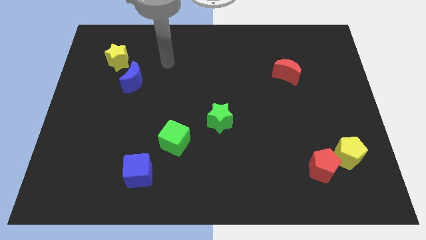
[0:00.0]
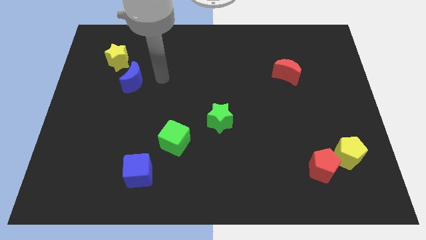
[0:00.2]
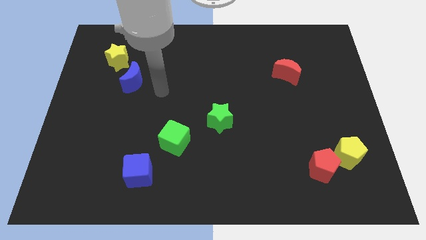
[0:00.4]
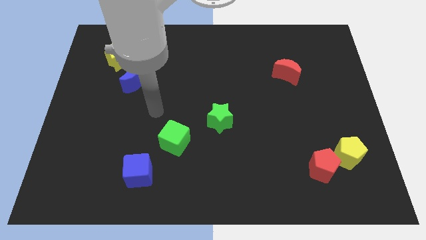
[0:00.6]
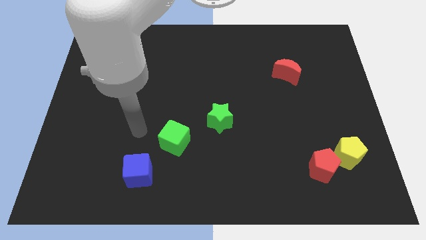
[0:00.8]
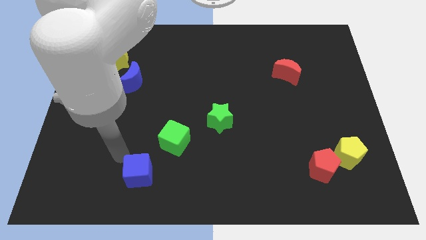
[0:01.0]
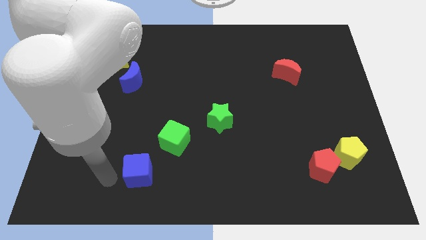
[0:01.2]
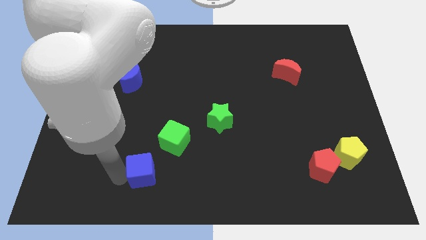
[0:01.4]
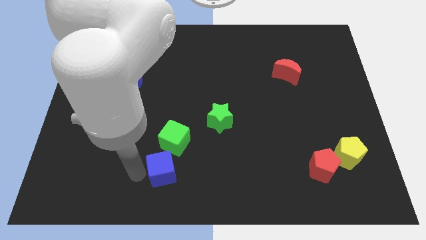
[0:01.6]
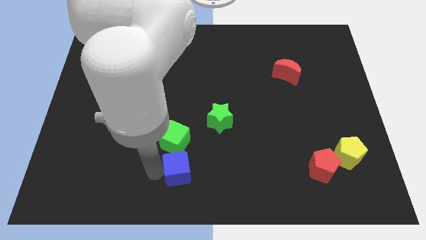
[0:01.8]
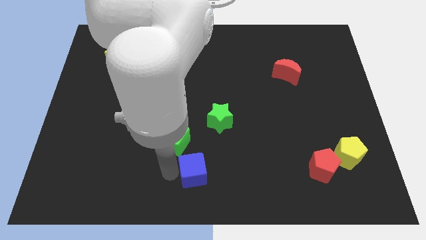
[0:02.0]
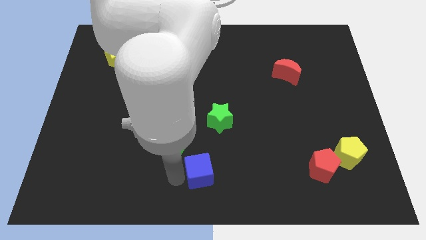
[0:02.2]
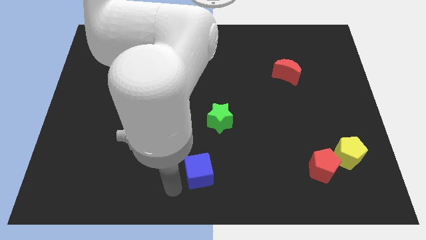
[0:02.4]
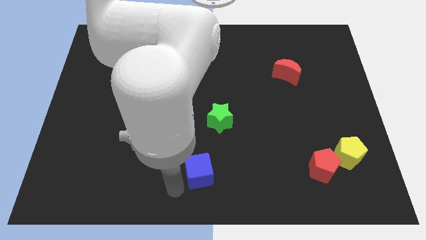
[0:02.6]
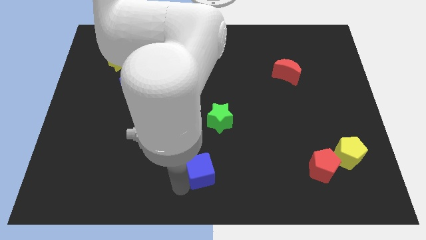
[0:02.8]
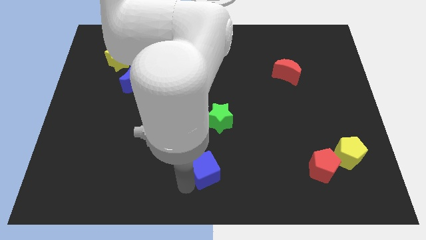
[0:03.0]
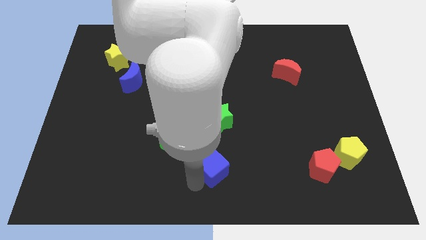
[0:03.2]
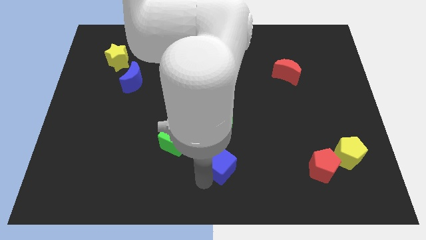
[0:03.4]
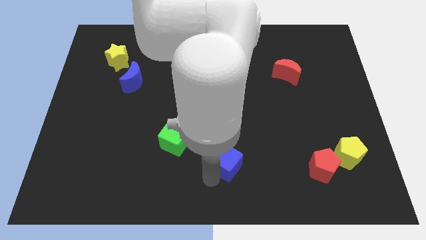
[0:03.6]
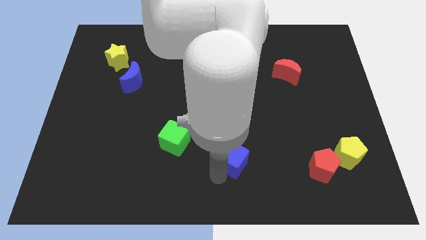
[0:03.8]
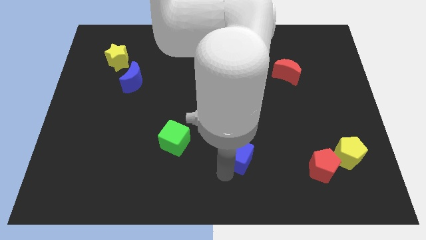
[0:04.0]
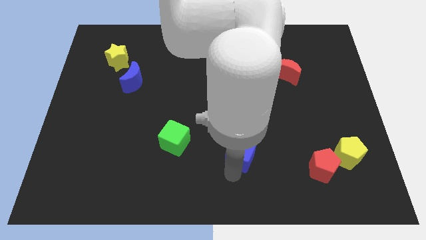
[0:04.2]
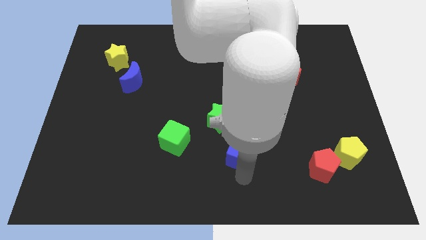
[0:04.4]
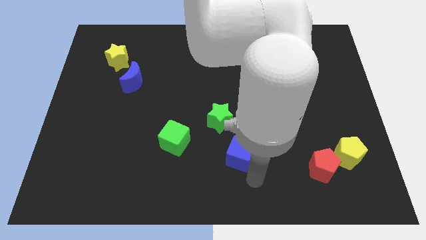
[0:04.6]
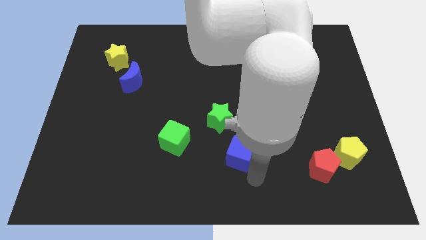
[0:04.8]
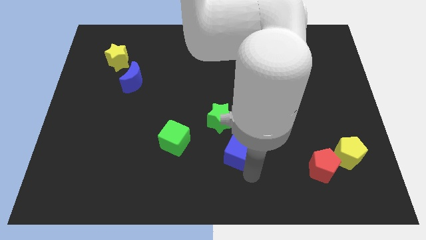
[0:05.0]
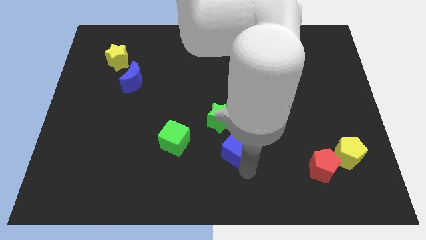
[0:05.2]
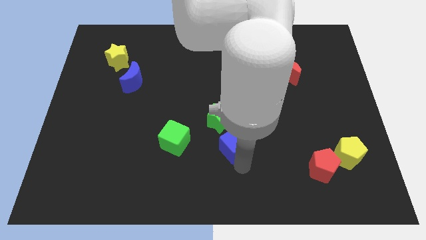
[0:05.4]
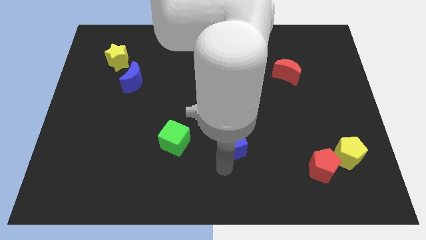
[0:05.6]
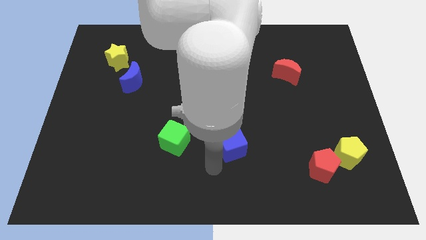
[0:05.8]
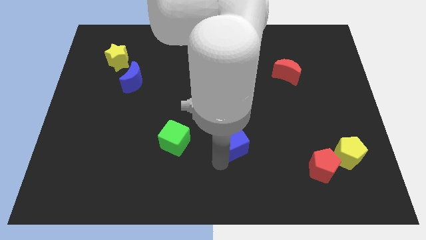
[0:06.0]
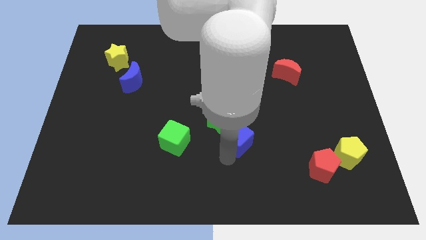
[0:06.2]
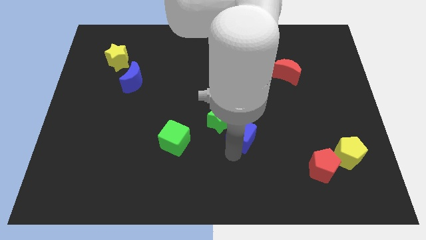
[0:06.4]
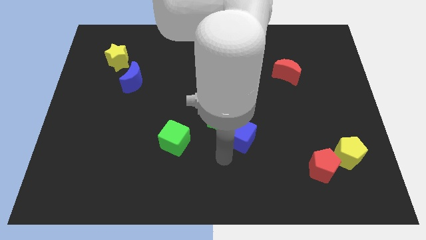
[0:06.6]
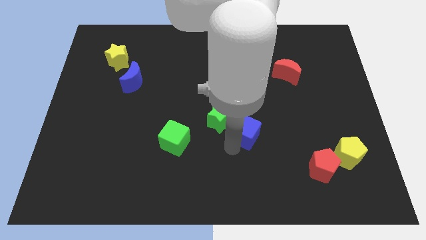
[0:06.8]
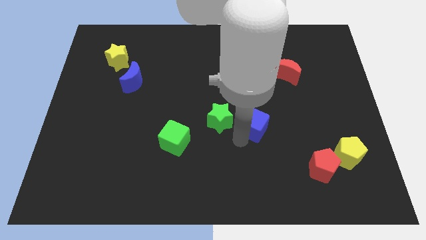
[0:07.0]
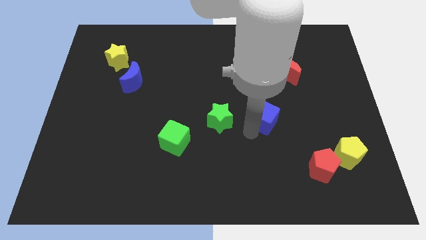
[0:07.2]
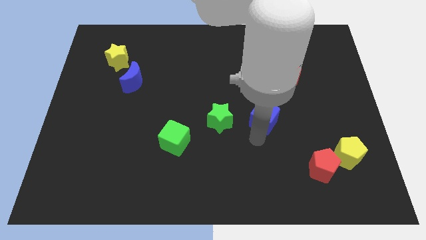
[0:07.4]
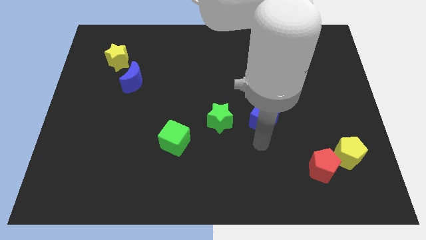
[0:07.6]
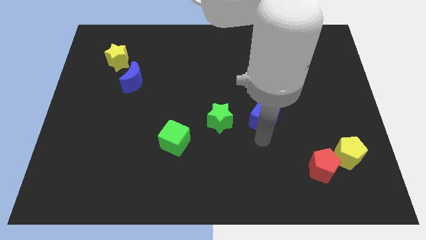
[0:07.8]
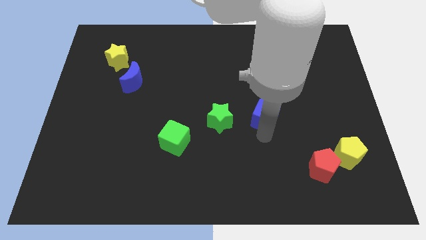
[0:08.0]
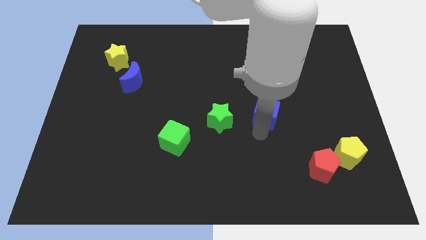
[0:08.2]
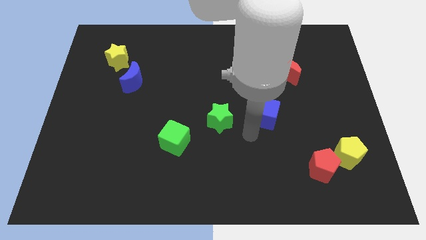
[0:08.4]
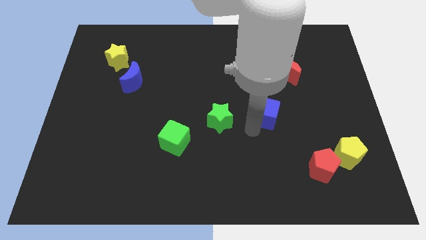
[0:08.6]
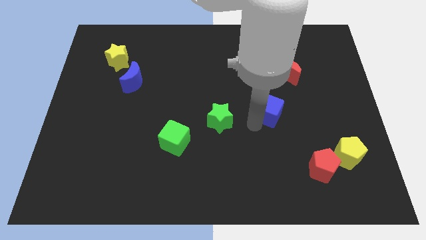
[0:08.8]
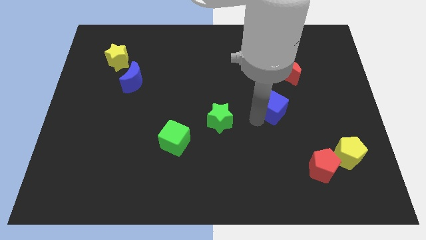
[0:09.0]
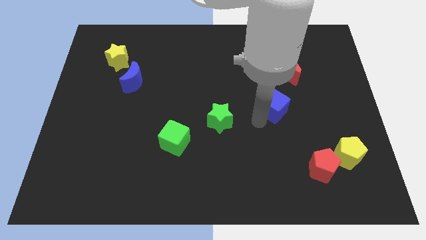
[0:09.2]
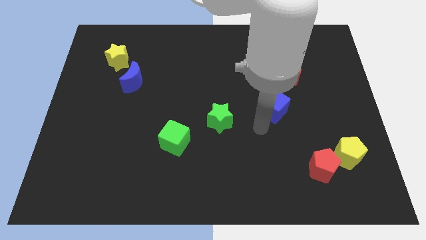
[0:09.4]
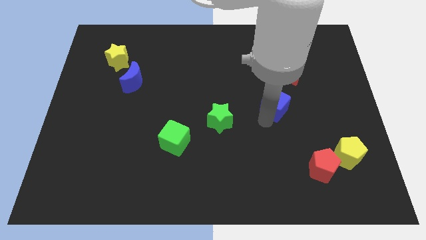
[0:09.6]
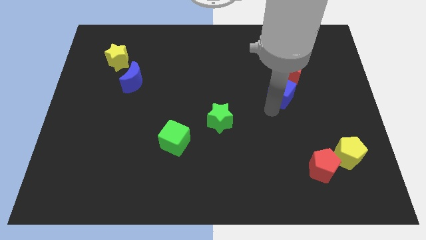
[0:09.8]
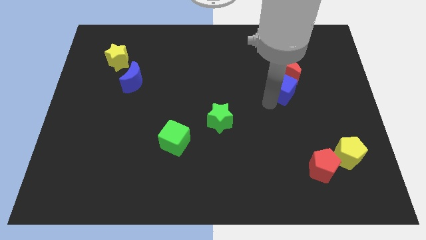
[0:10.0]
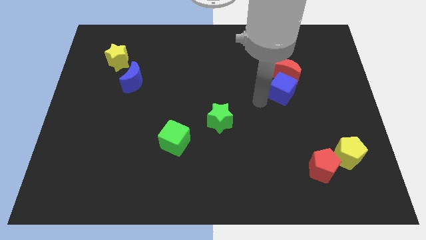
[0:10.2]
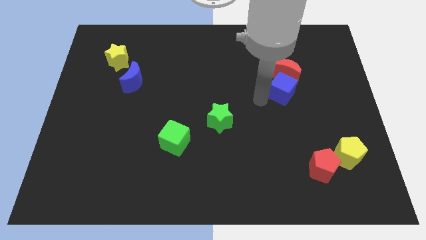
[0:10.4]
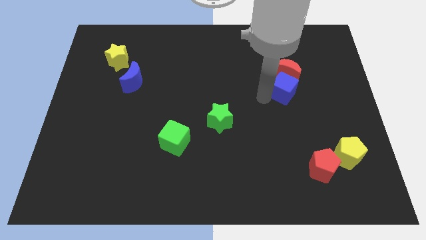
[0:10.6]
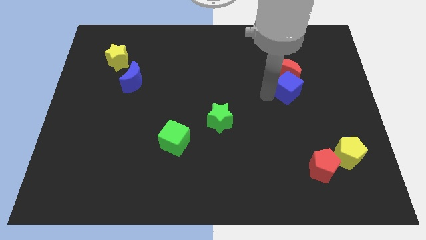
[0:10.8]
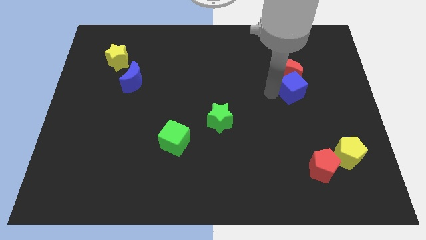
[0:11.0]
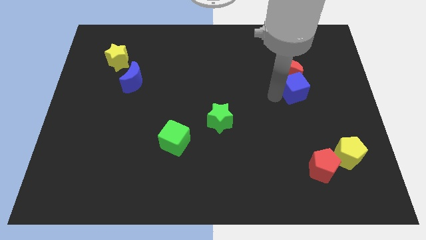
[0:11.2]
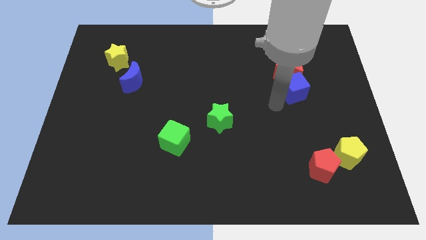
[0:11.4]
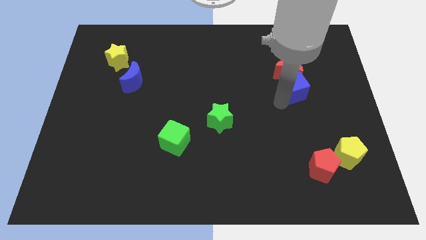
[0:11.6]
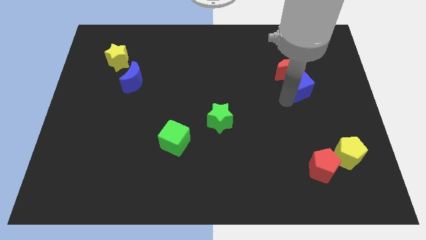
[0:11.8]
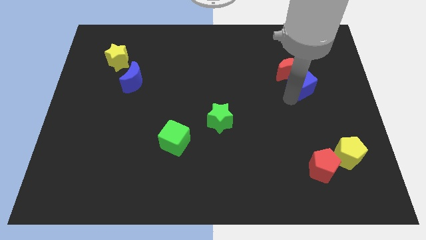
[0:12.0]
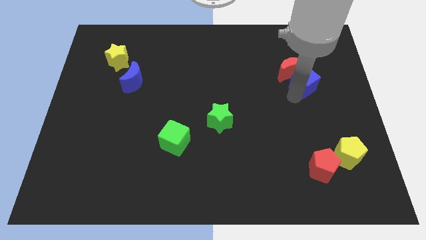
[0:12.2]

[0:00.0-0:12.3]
put the blue cube to the right side of the red moon
